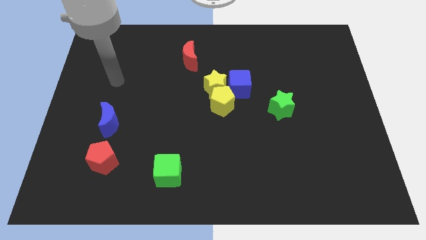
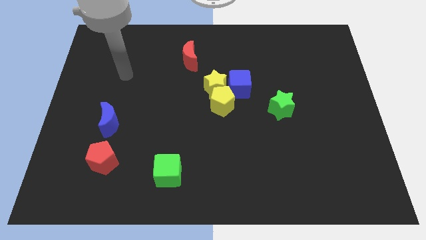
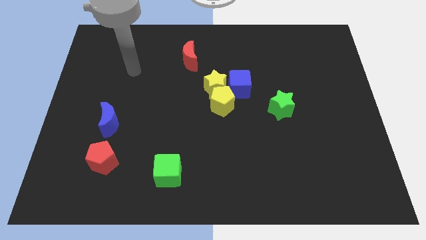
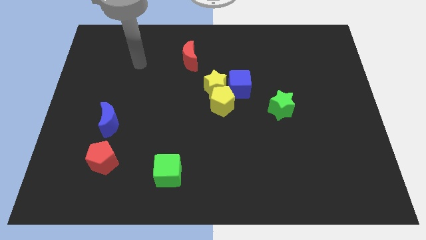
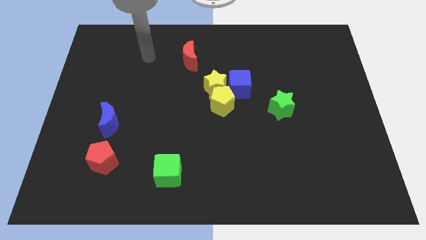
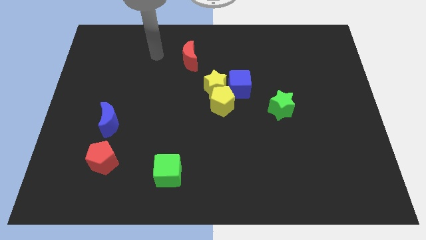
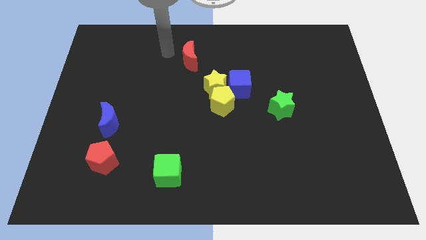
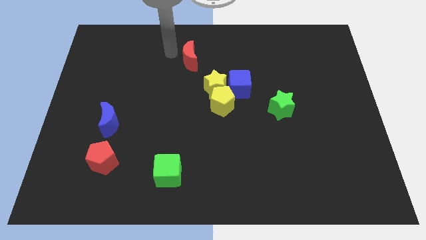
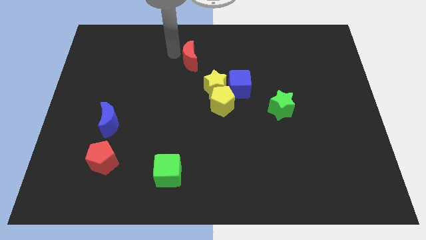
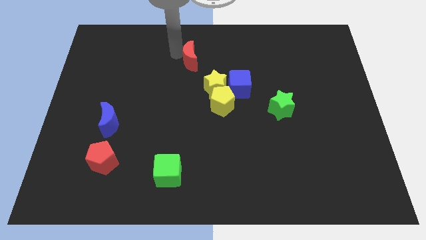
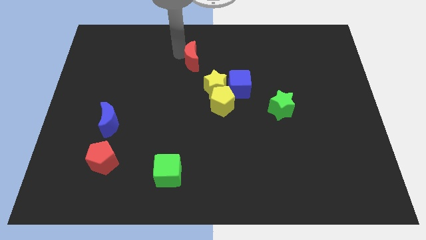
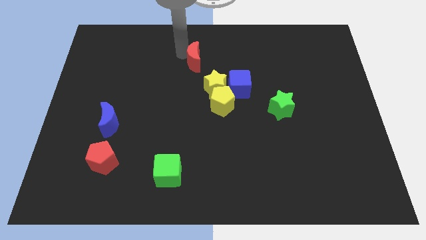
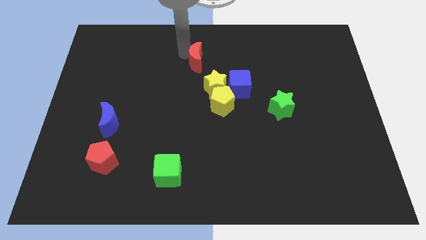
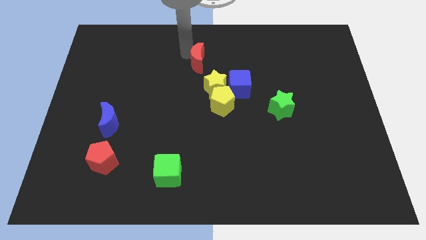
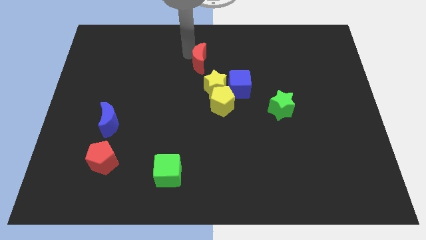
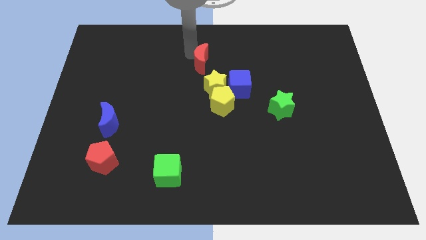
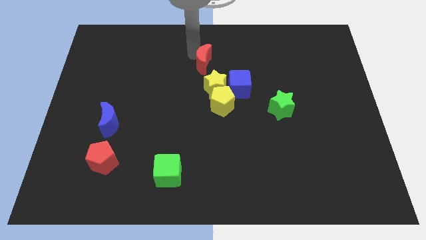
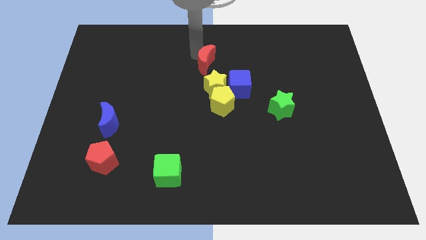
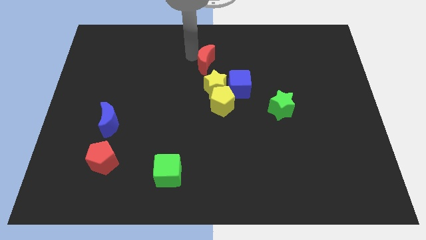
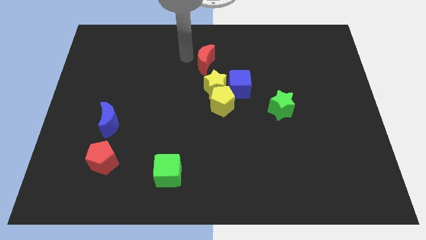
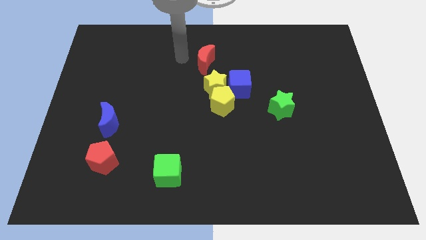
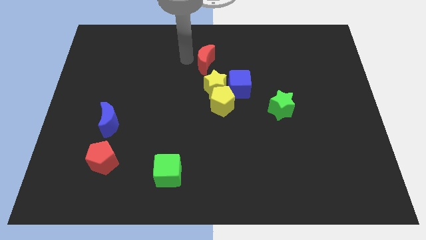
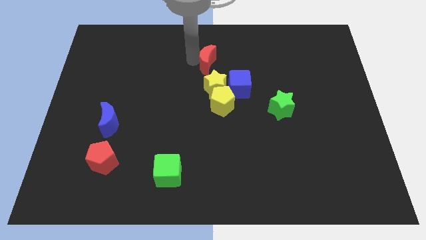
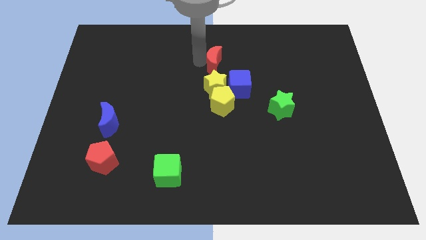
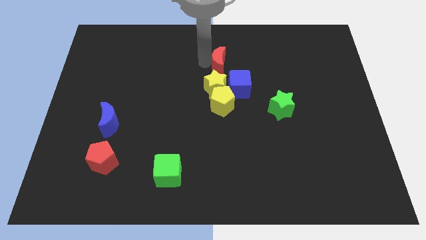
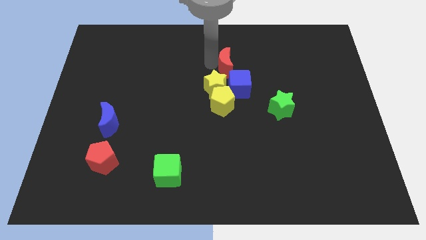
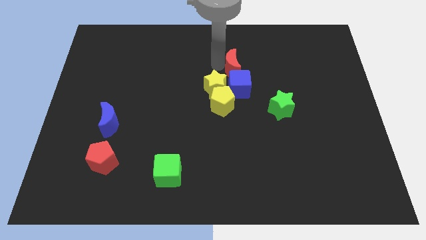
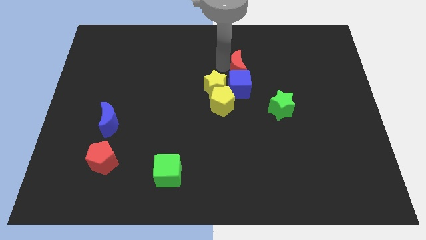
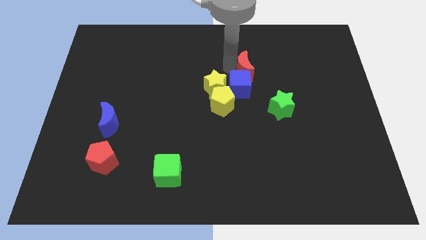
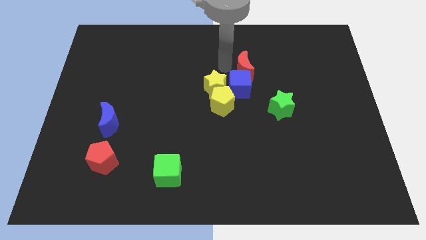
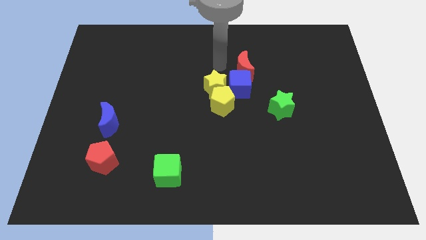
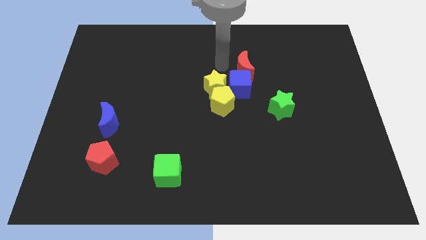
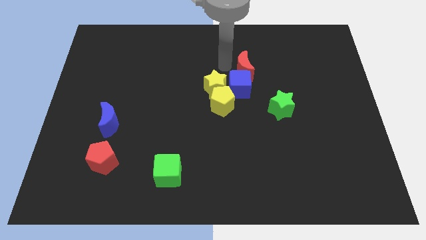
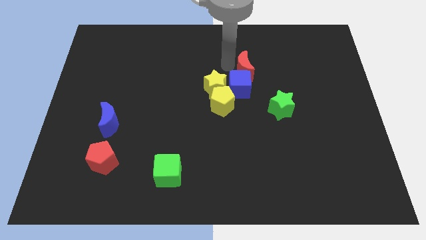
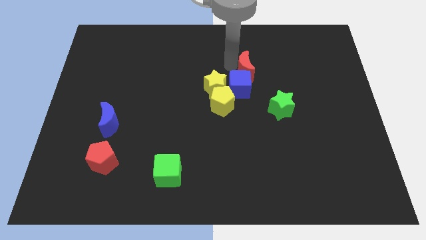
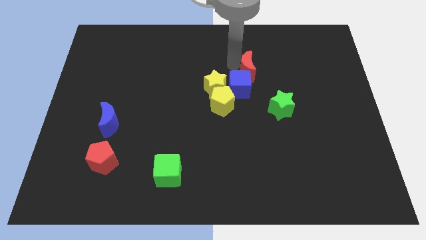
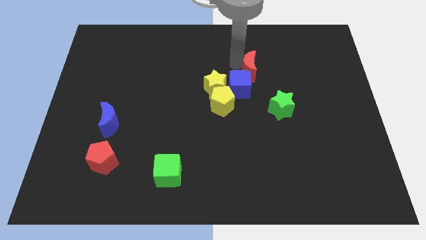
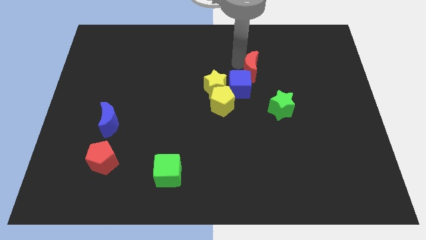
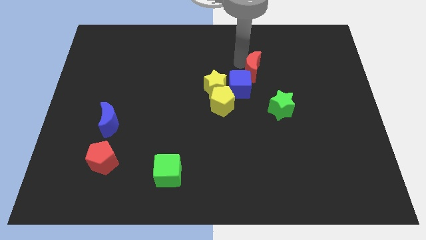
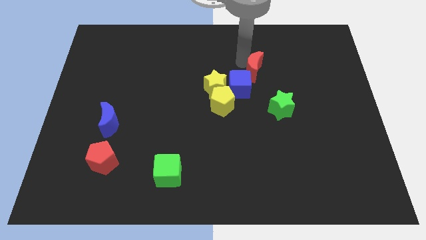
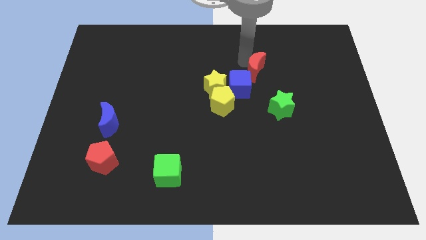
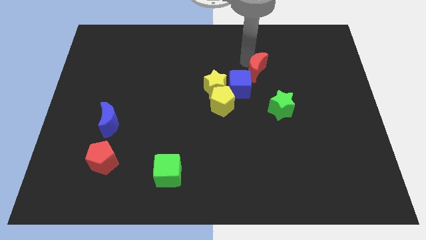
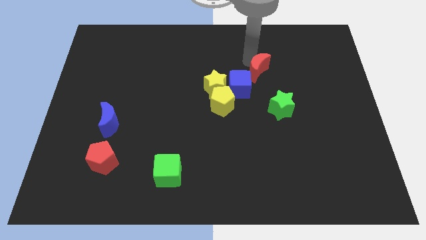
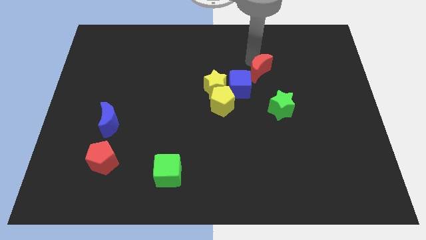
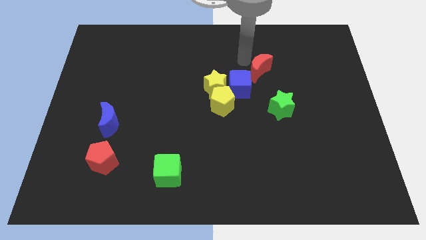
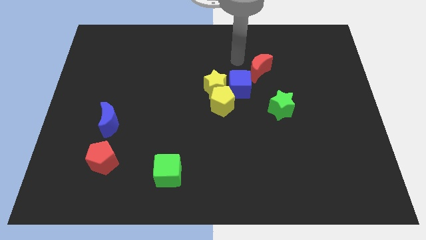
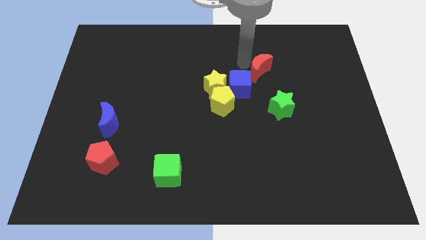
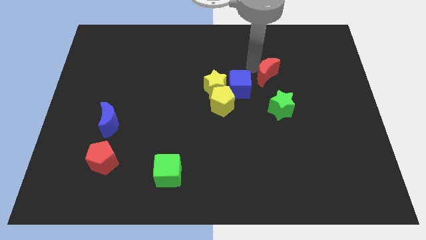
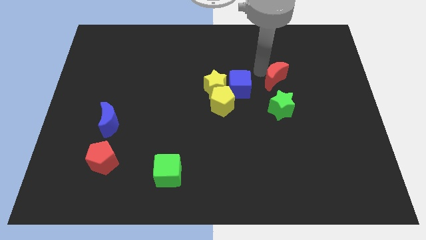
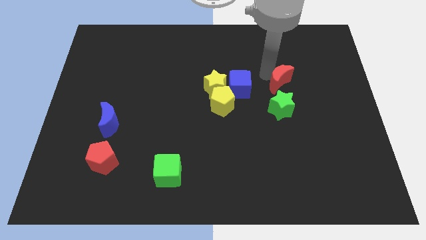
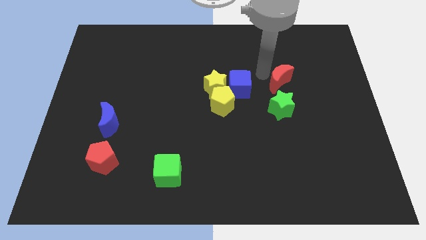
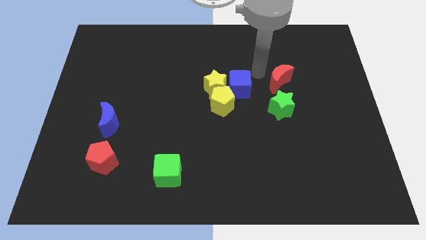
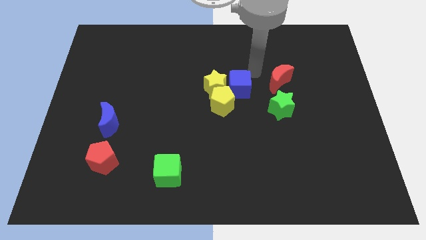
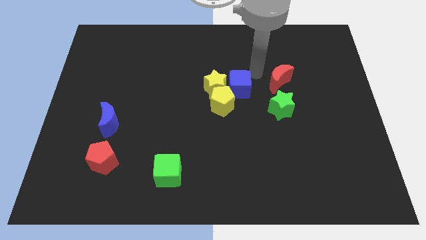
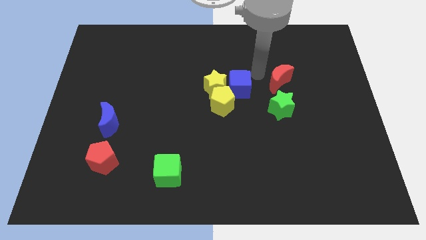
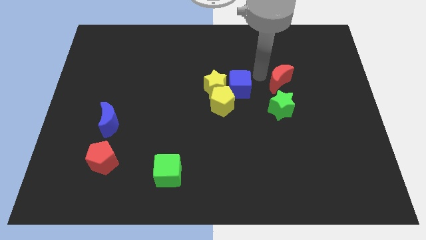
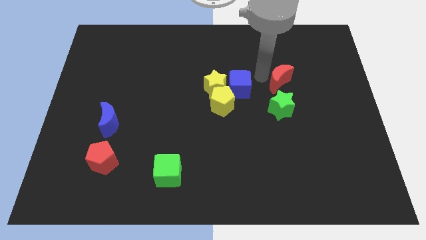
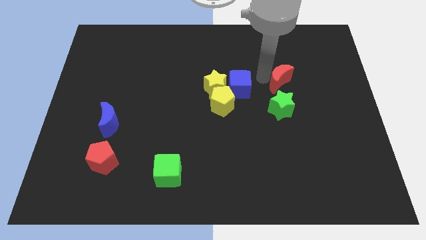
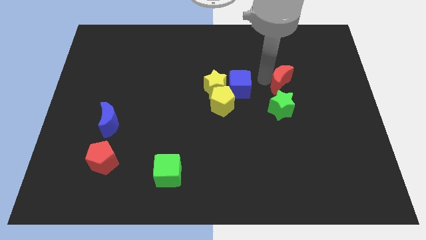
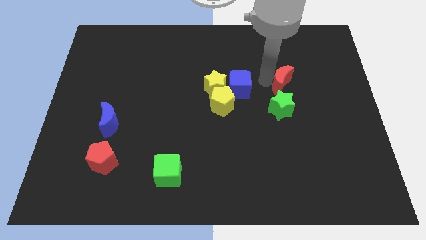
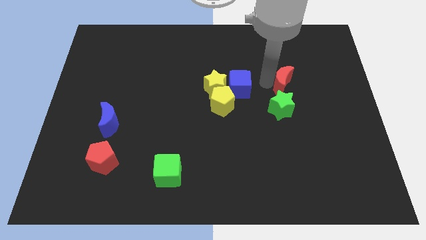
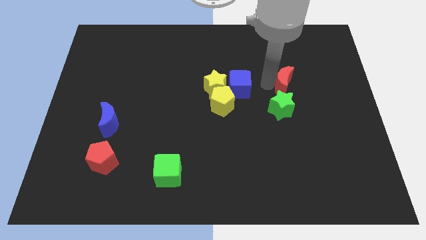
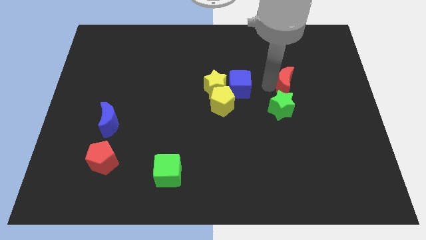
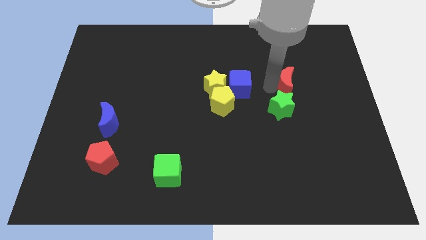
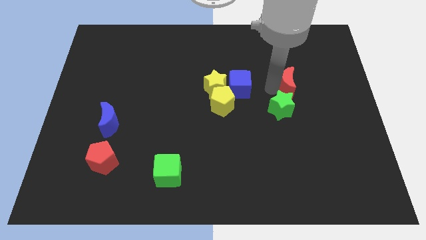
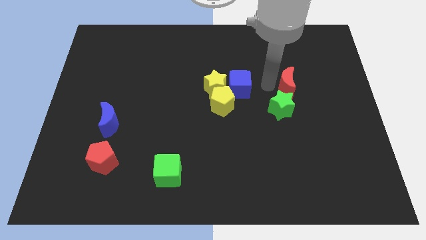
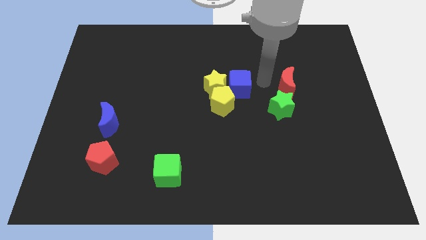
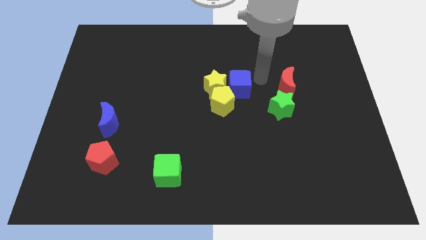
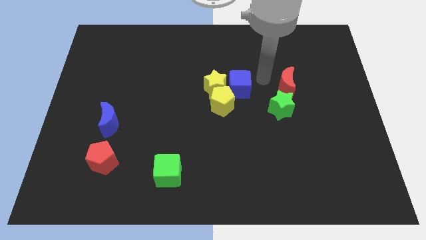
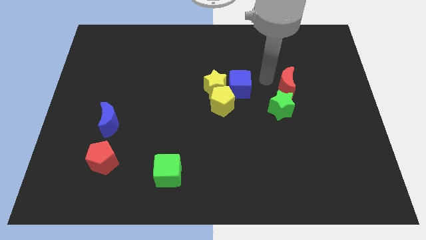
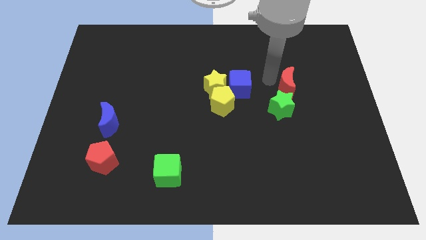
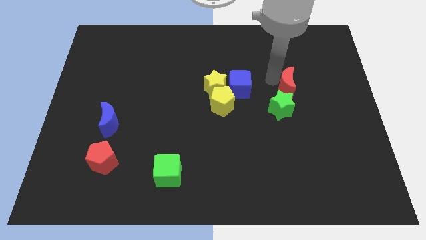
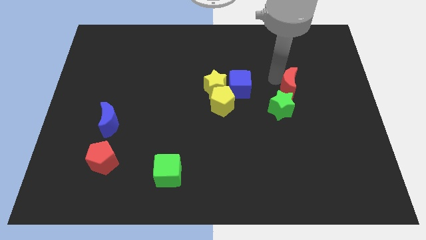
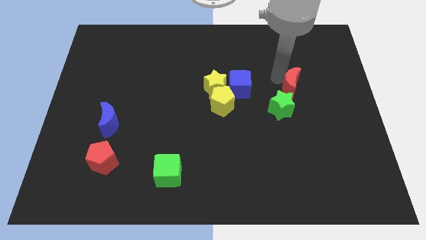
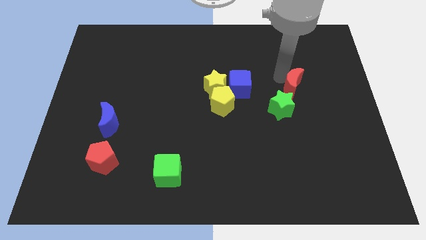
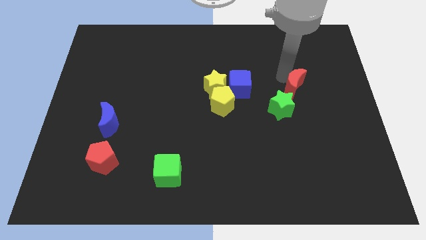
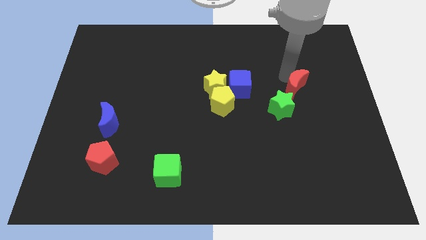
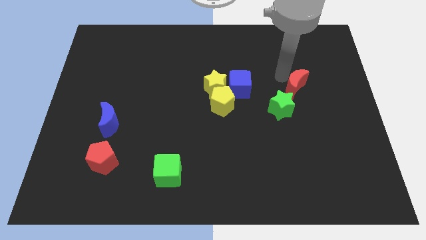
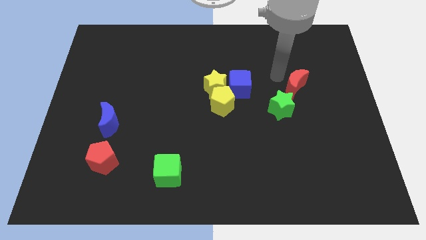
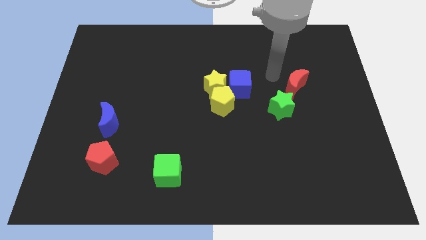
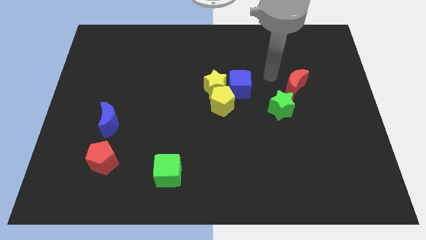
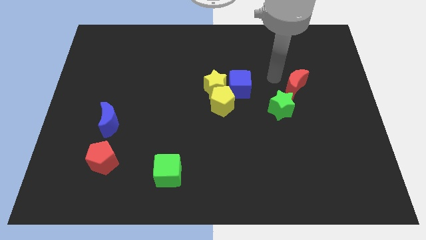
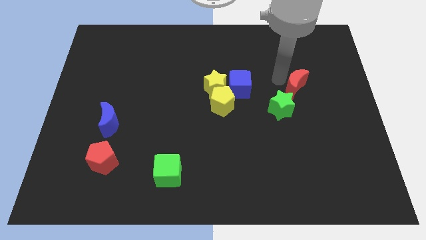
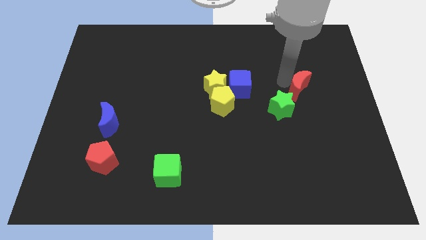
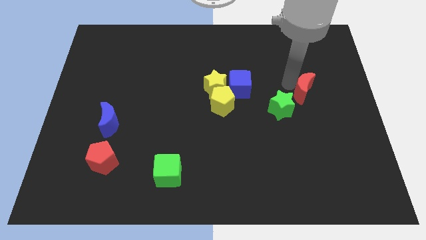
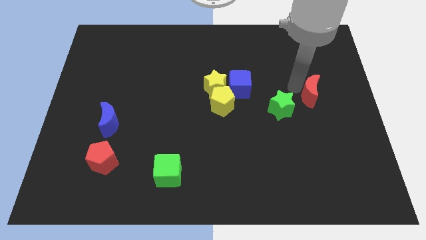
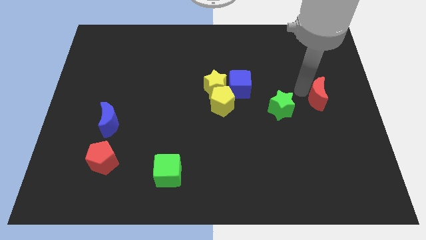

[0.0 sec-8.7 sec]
slide the red moon to the center right
